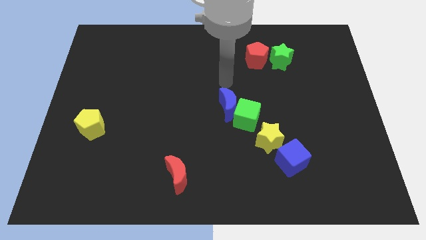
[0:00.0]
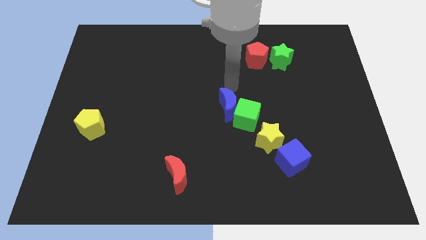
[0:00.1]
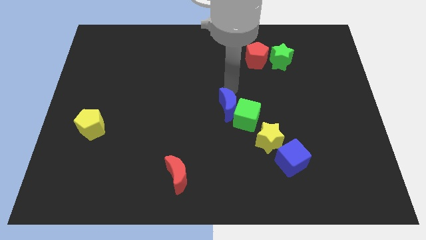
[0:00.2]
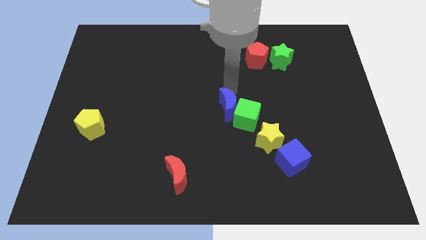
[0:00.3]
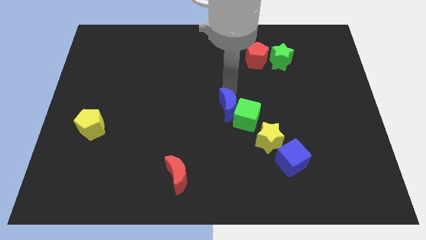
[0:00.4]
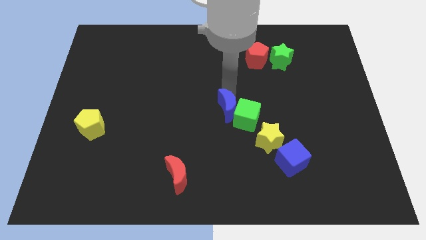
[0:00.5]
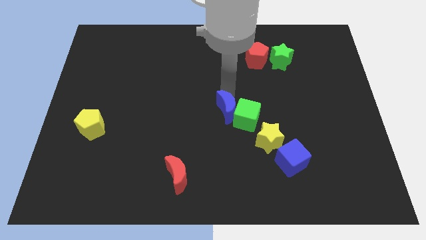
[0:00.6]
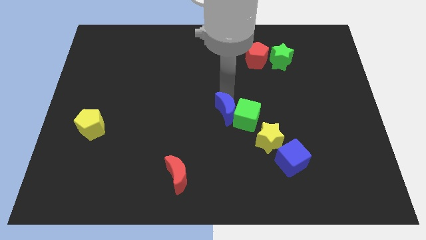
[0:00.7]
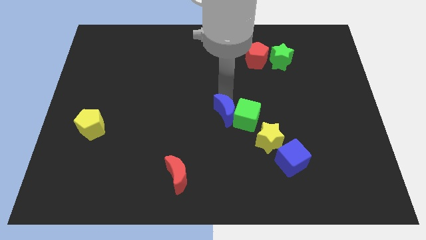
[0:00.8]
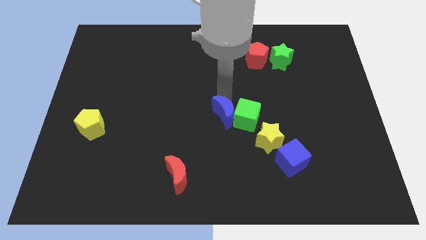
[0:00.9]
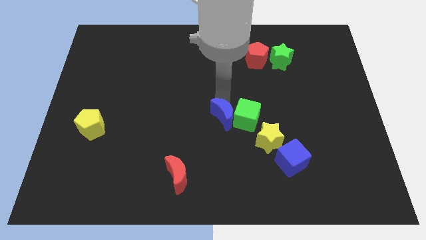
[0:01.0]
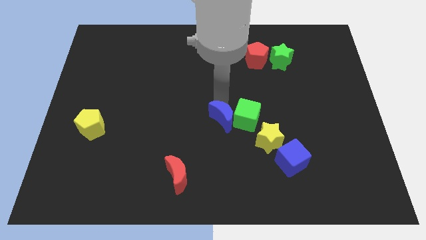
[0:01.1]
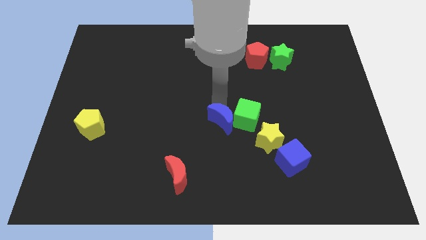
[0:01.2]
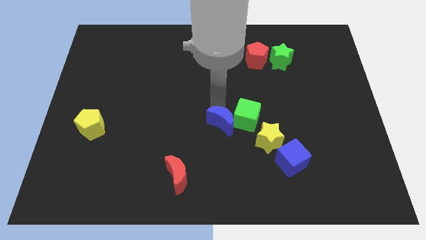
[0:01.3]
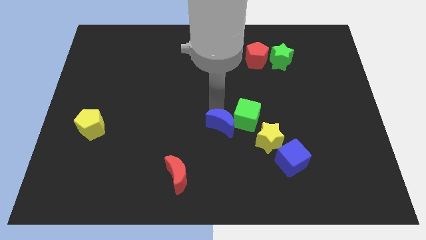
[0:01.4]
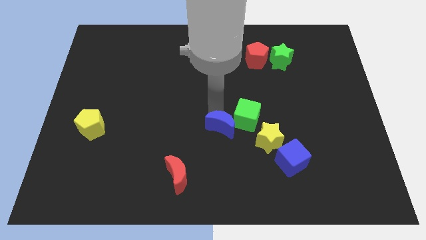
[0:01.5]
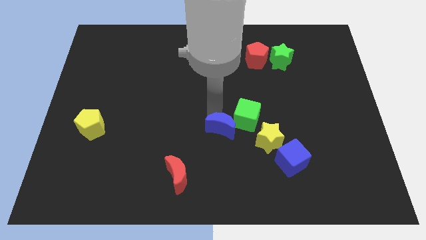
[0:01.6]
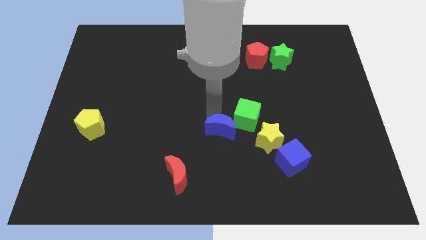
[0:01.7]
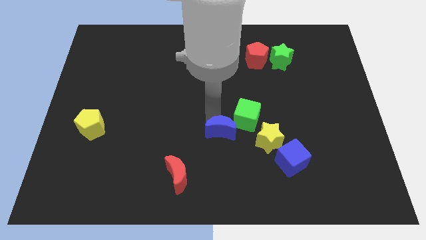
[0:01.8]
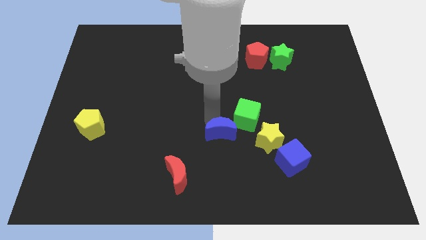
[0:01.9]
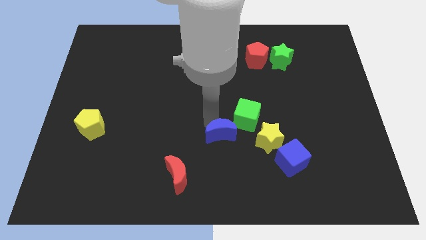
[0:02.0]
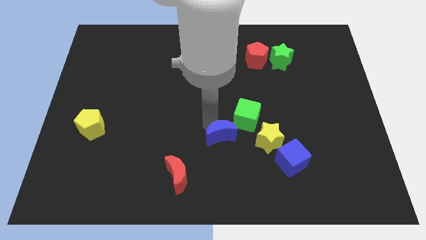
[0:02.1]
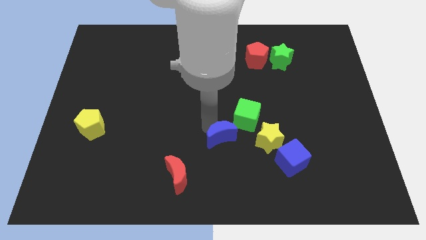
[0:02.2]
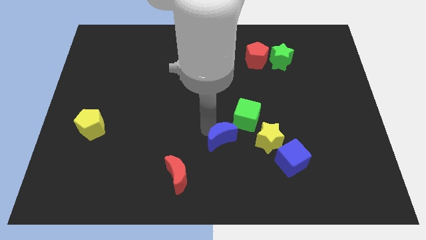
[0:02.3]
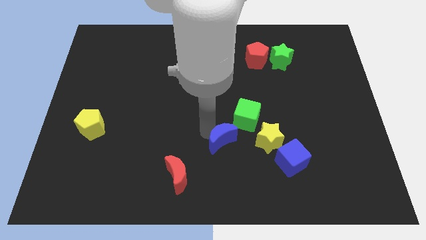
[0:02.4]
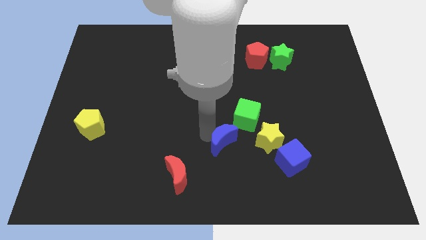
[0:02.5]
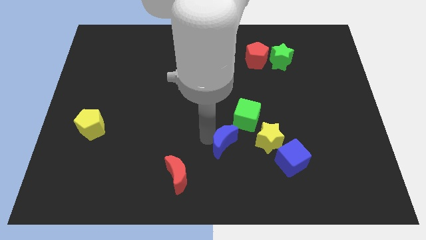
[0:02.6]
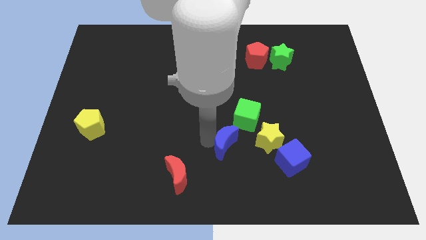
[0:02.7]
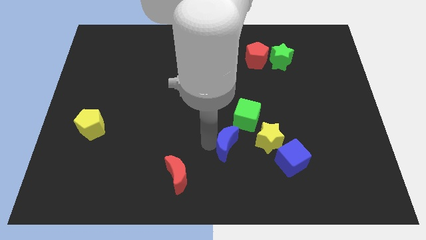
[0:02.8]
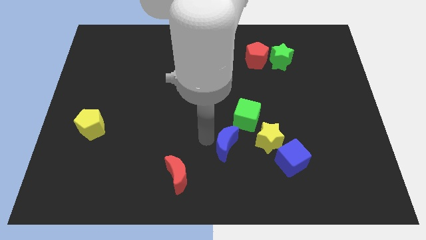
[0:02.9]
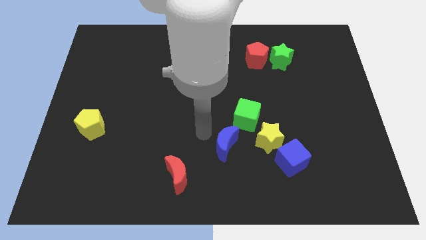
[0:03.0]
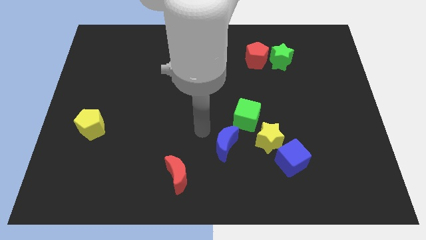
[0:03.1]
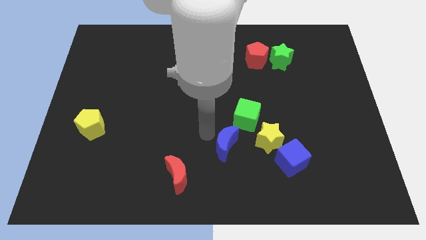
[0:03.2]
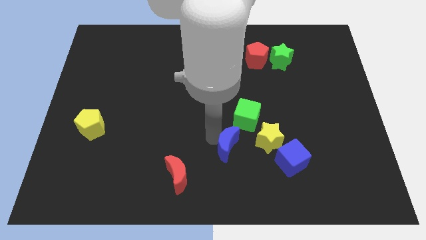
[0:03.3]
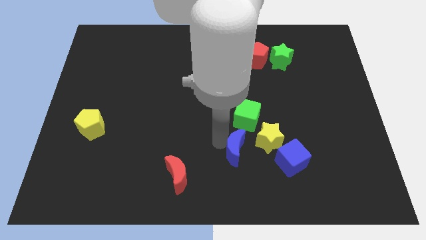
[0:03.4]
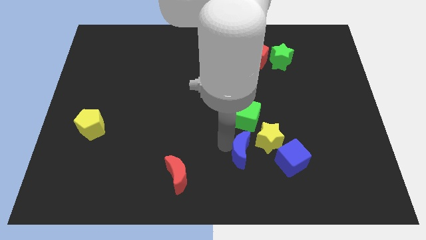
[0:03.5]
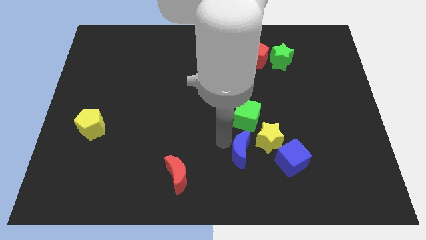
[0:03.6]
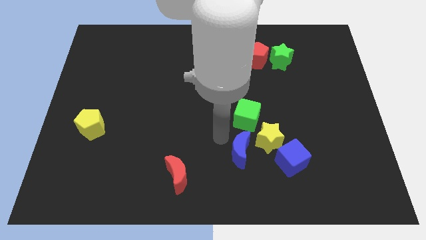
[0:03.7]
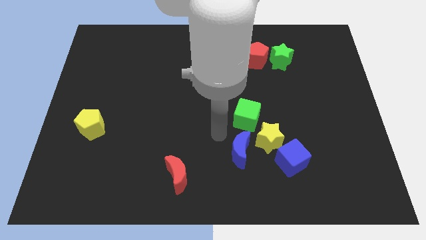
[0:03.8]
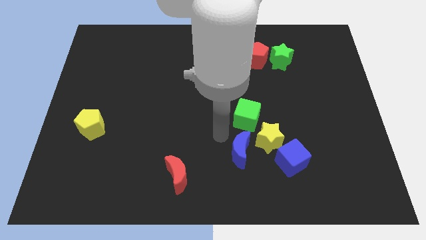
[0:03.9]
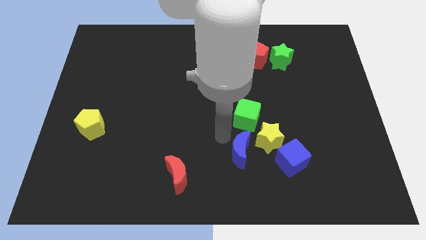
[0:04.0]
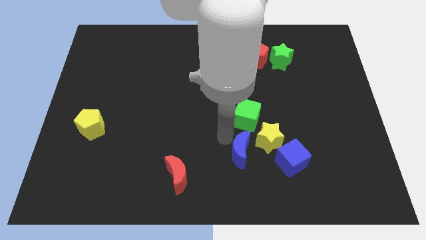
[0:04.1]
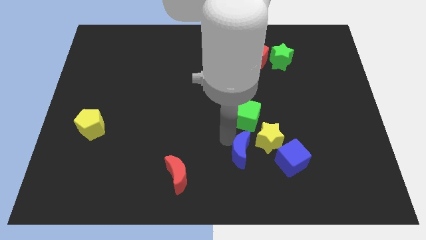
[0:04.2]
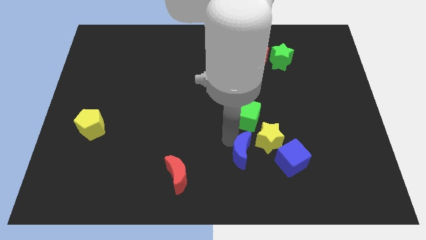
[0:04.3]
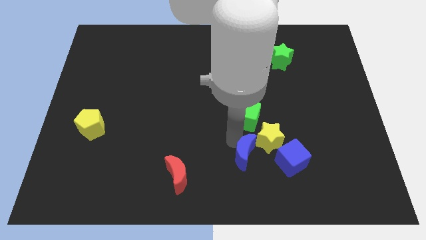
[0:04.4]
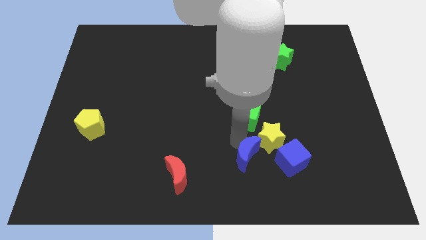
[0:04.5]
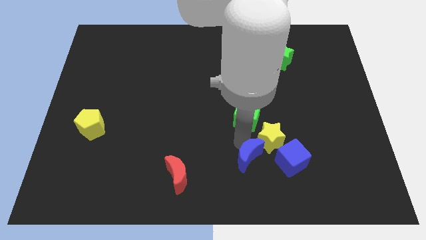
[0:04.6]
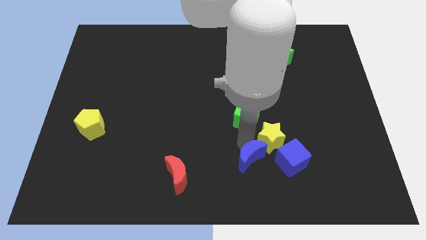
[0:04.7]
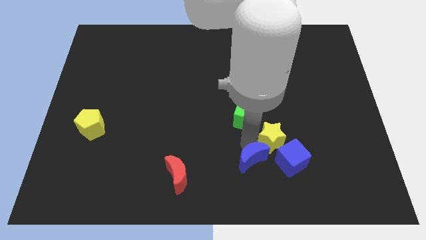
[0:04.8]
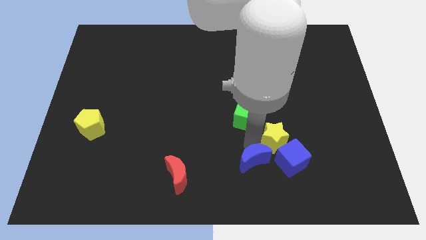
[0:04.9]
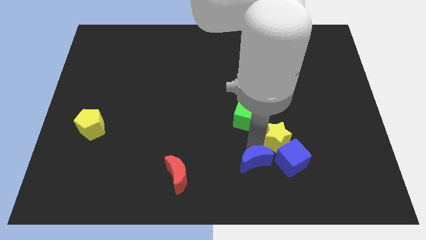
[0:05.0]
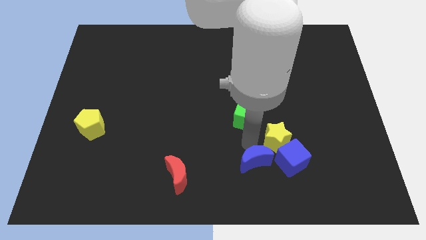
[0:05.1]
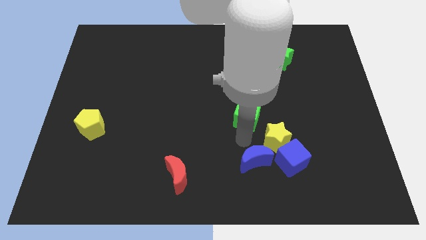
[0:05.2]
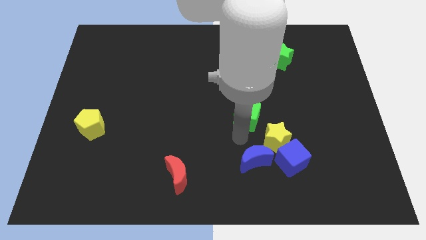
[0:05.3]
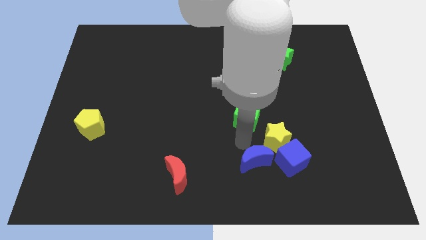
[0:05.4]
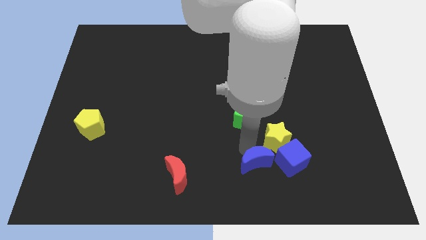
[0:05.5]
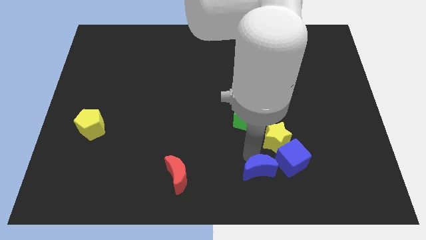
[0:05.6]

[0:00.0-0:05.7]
put the blue moon diagonally down and to the left of the blue cube

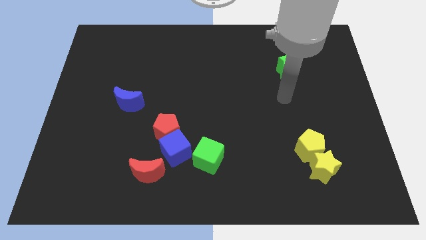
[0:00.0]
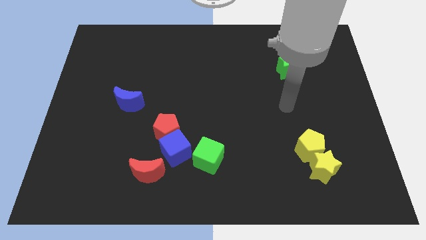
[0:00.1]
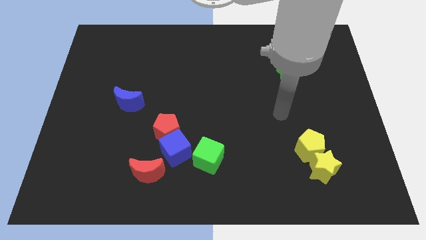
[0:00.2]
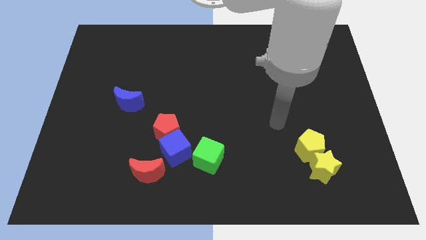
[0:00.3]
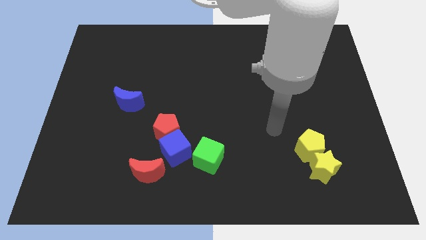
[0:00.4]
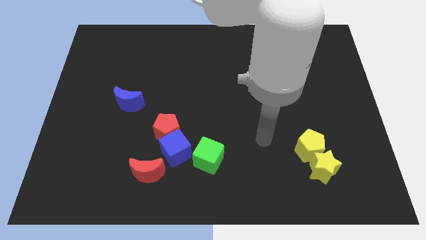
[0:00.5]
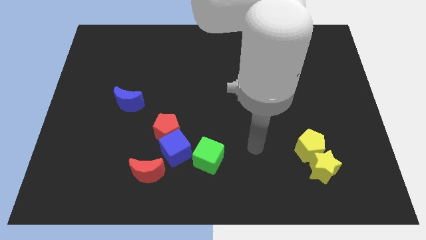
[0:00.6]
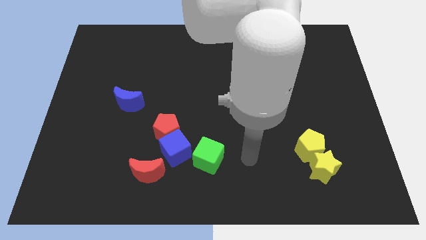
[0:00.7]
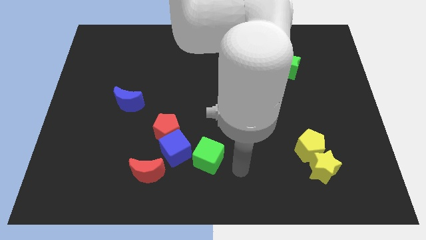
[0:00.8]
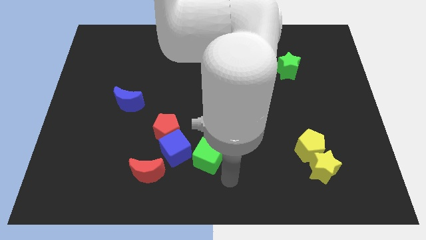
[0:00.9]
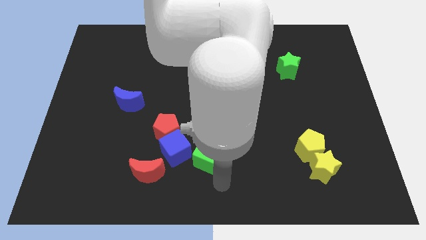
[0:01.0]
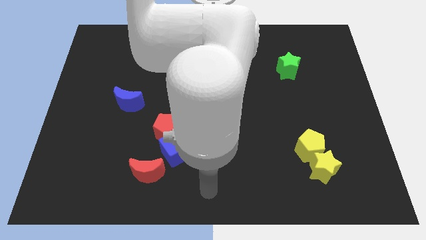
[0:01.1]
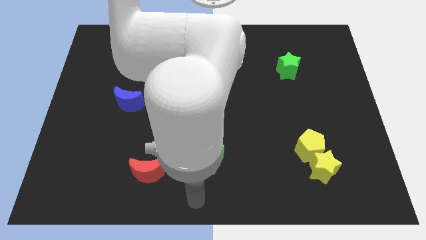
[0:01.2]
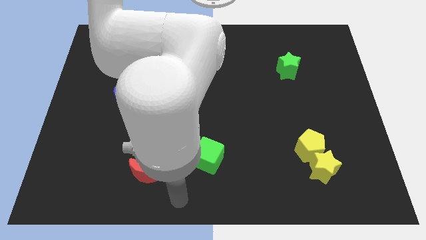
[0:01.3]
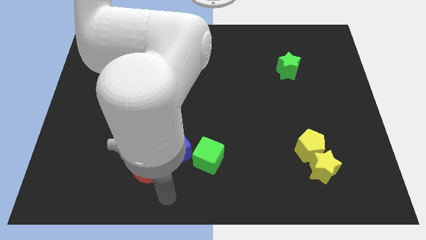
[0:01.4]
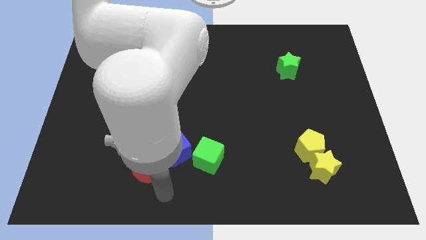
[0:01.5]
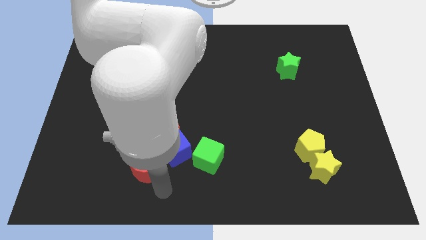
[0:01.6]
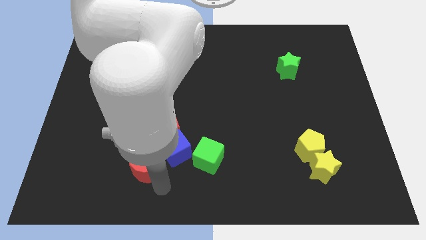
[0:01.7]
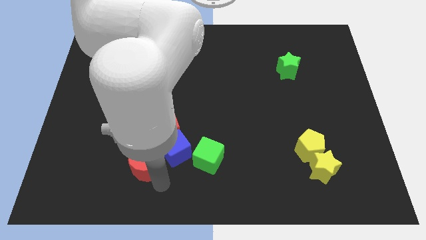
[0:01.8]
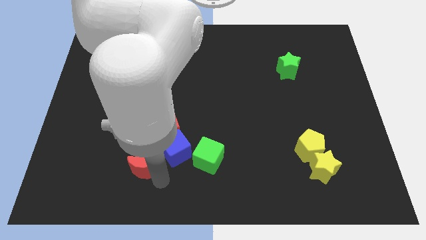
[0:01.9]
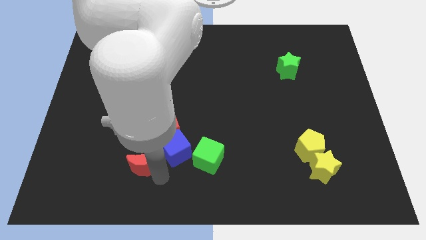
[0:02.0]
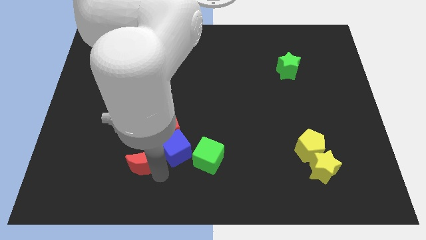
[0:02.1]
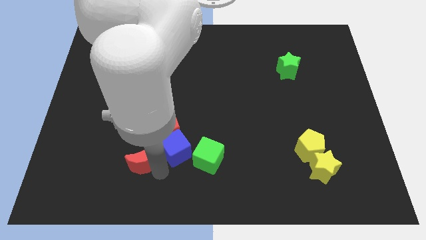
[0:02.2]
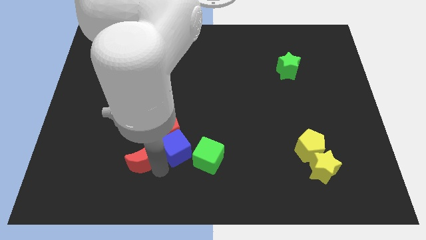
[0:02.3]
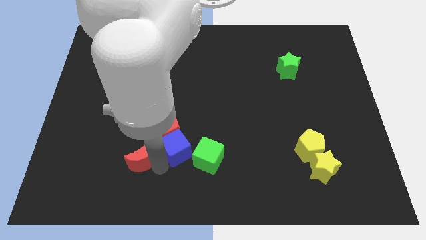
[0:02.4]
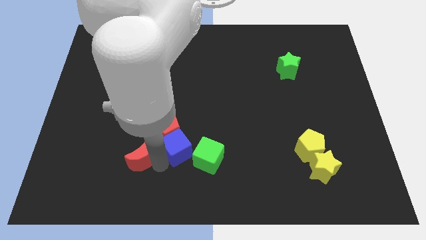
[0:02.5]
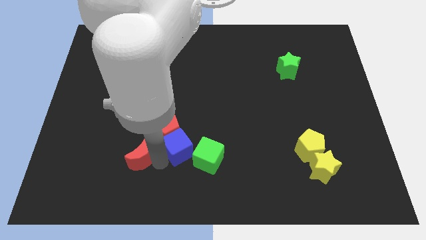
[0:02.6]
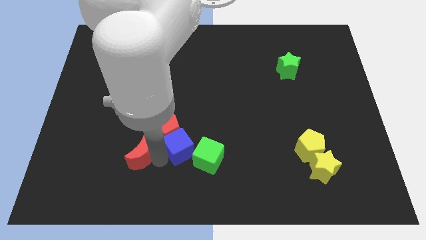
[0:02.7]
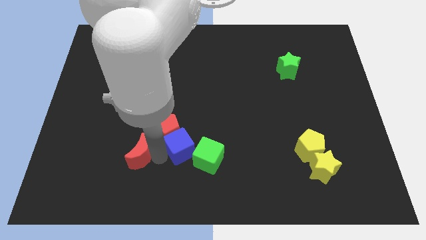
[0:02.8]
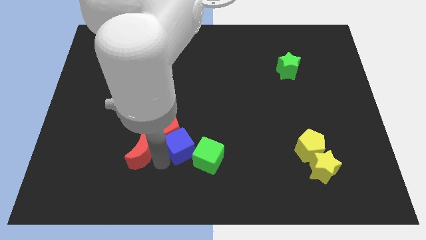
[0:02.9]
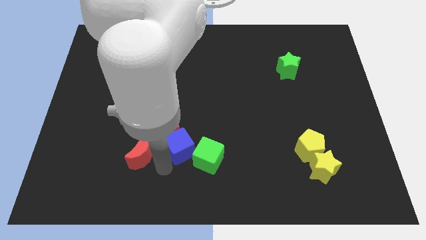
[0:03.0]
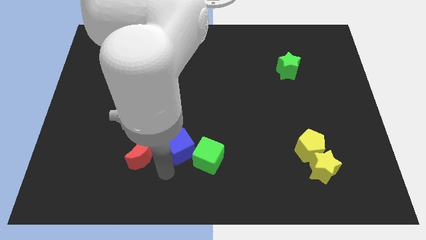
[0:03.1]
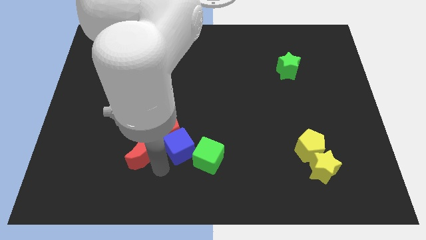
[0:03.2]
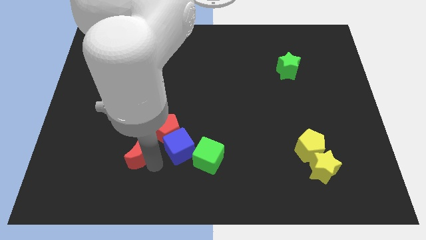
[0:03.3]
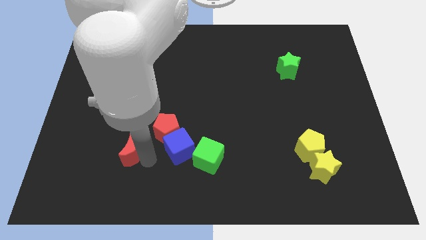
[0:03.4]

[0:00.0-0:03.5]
put the red moon below the blue moon
